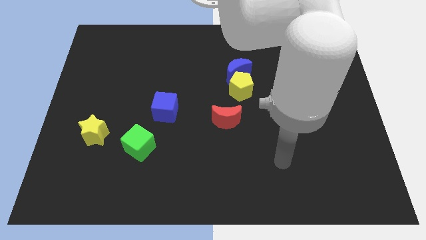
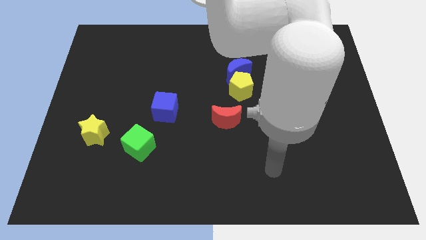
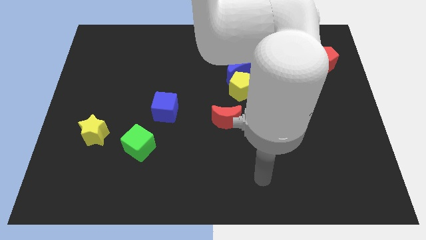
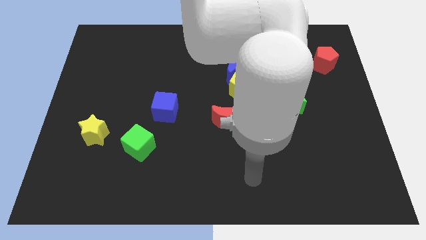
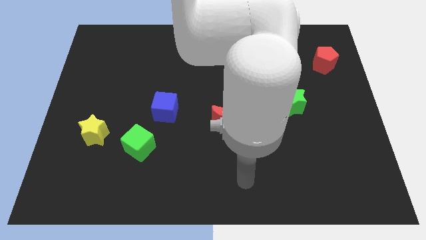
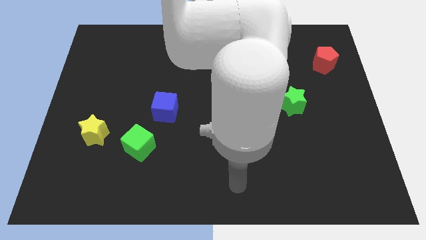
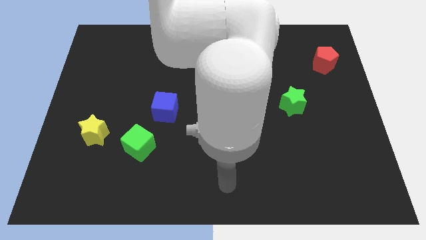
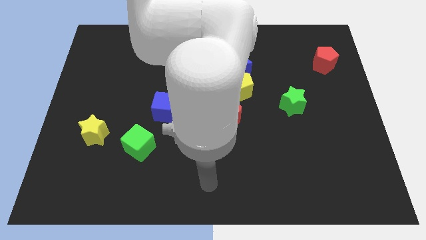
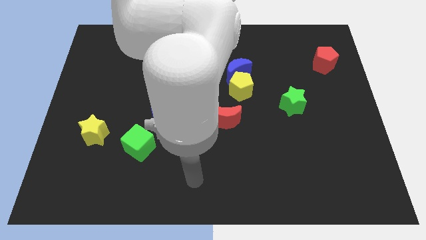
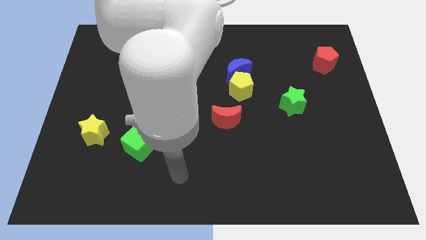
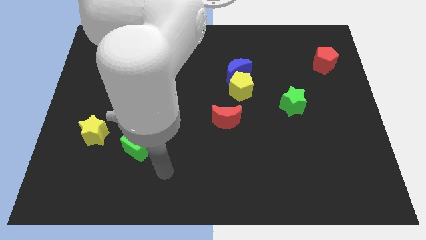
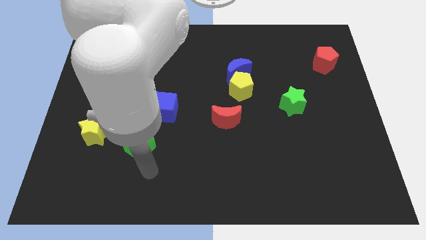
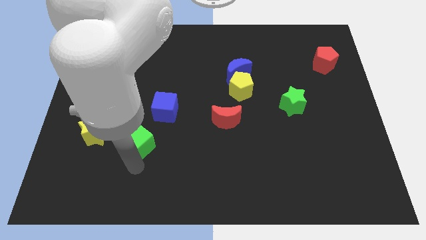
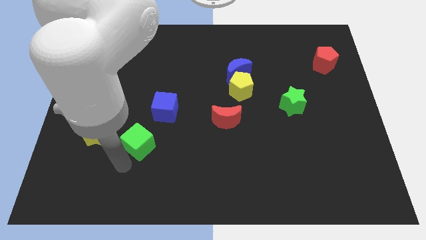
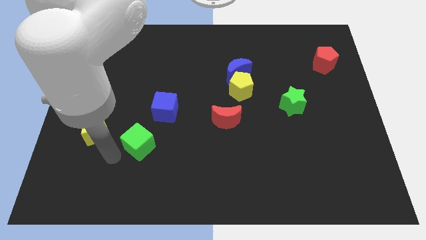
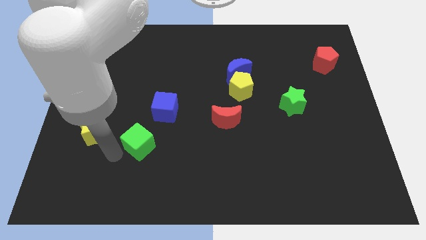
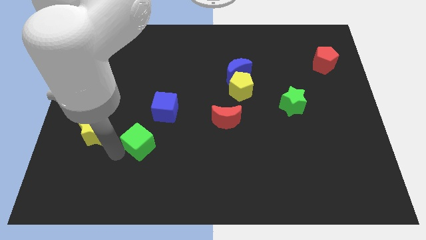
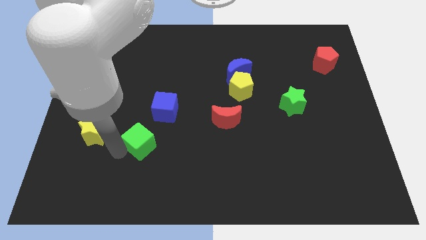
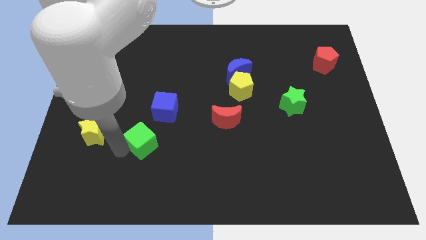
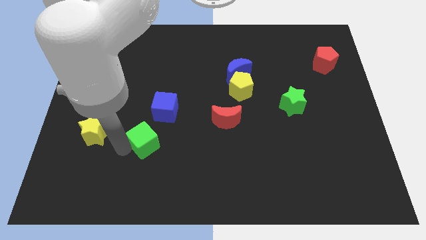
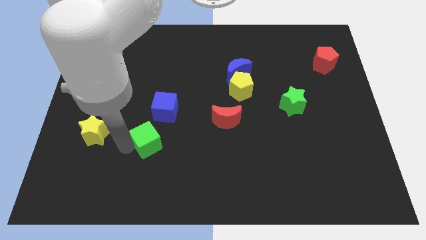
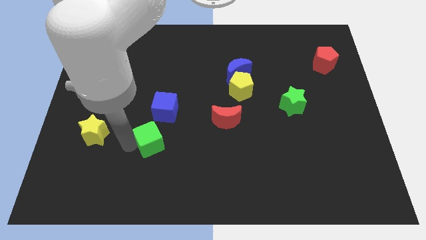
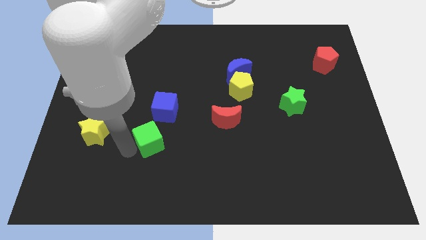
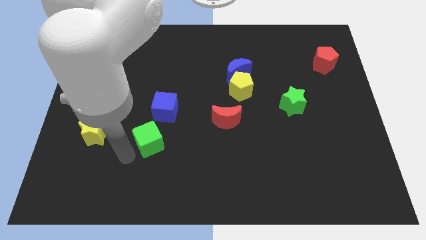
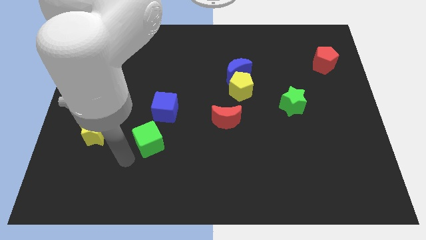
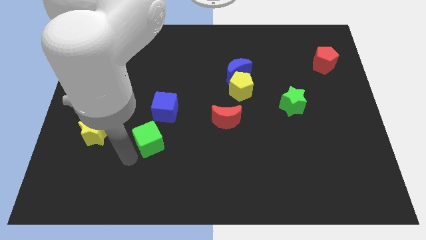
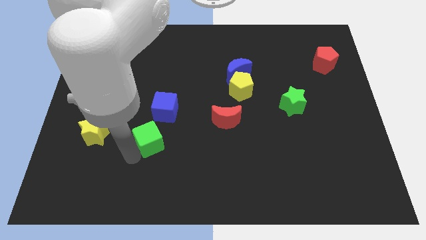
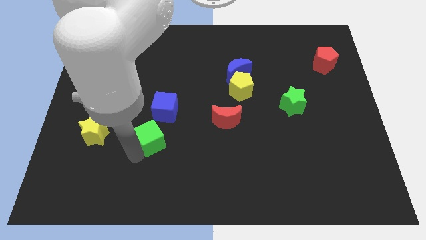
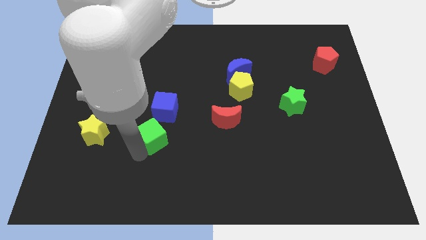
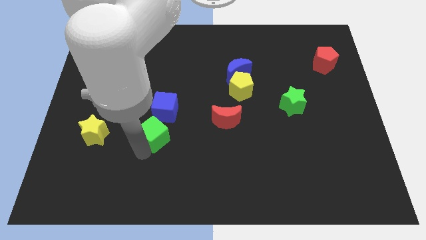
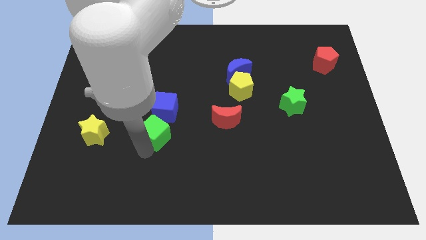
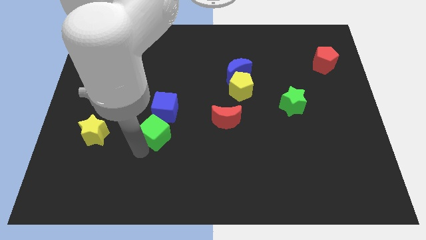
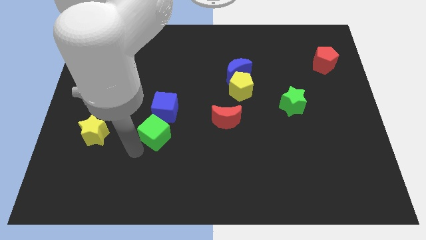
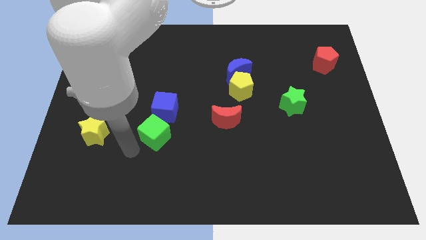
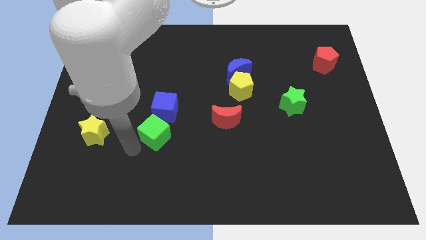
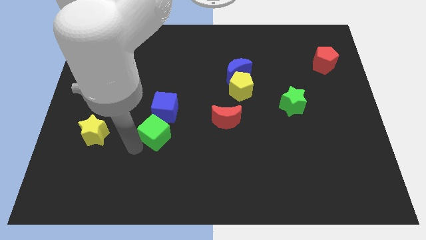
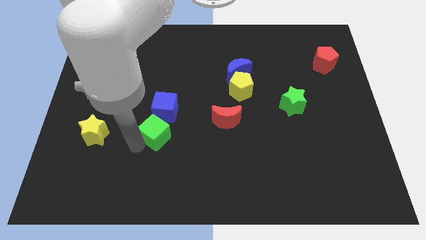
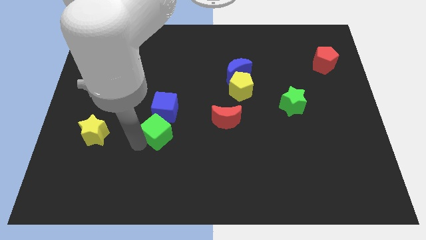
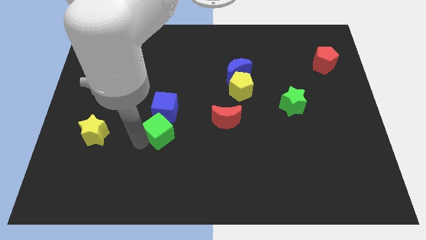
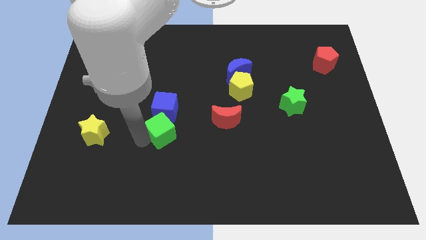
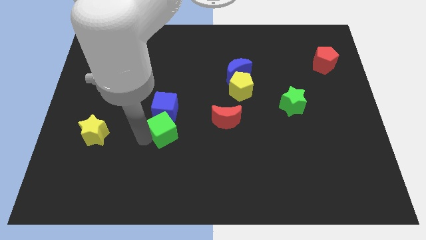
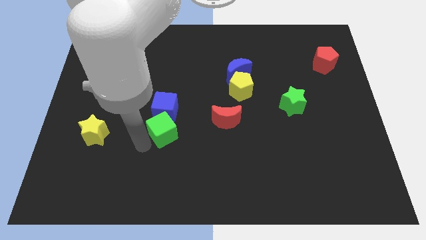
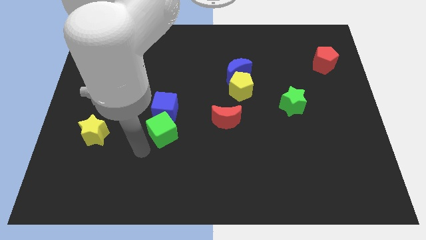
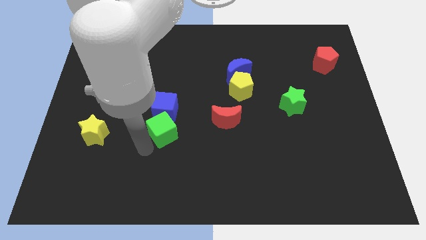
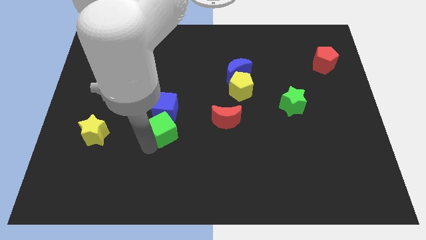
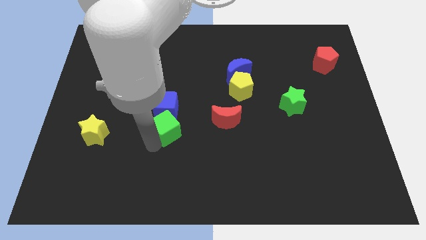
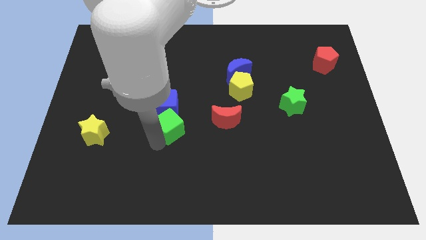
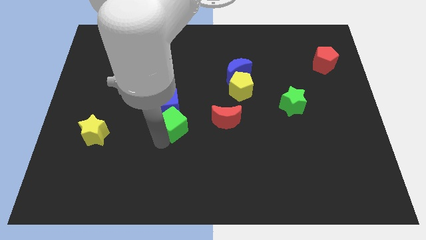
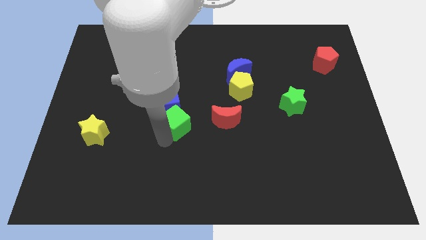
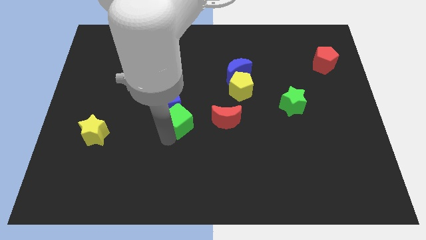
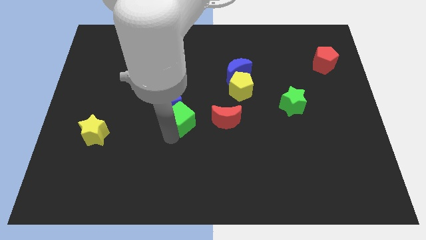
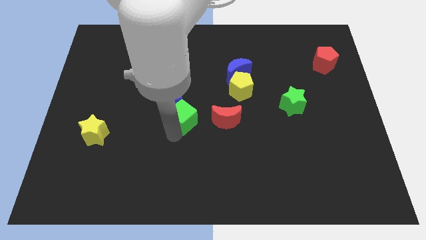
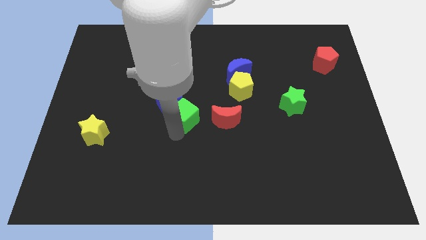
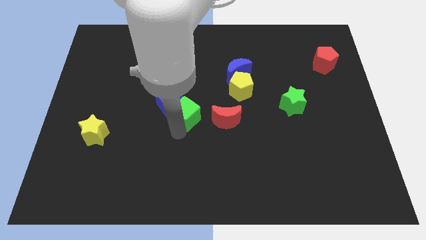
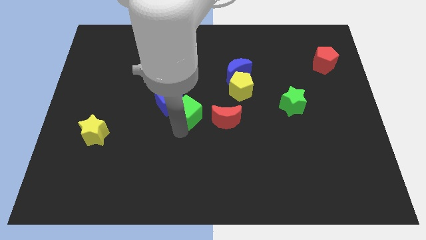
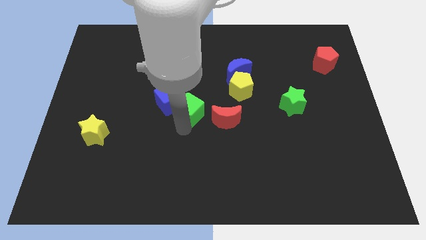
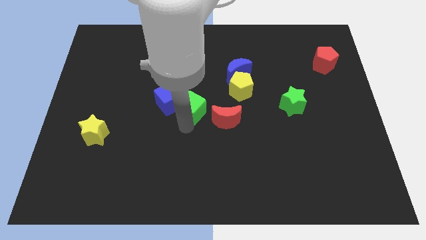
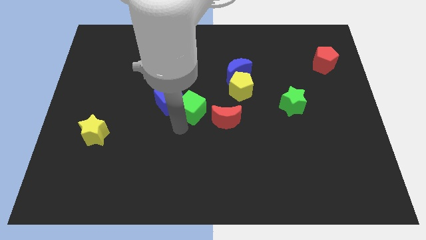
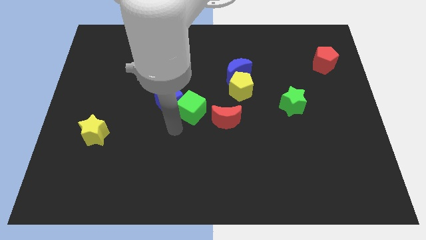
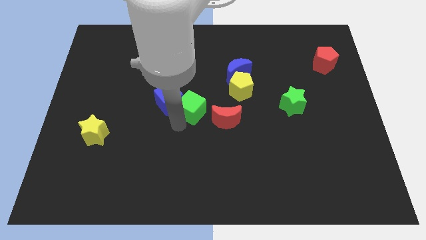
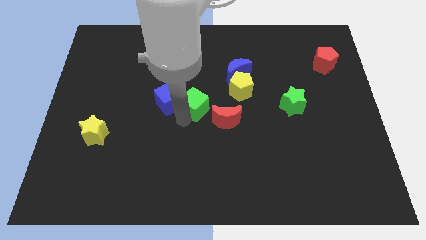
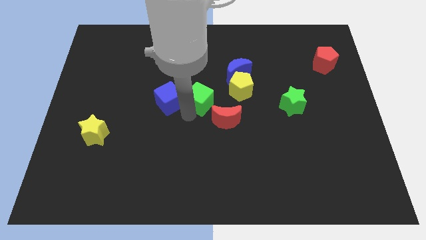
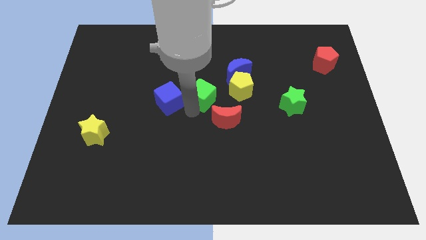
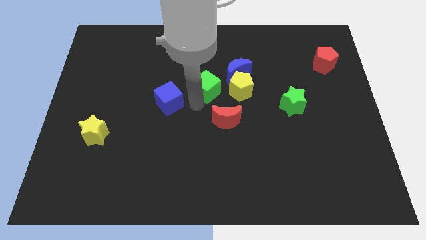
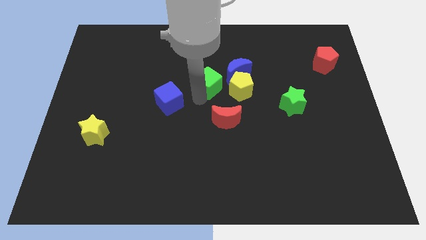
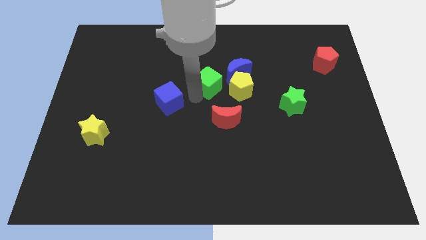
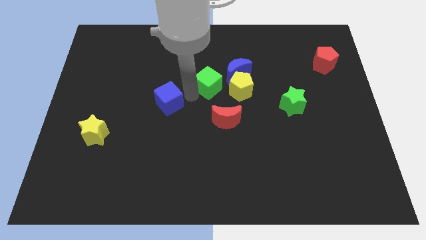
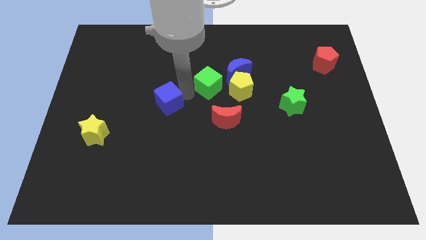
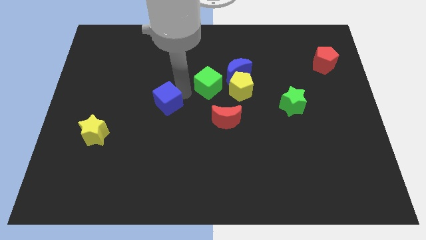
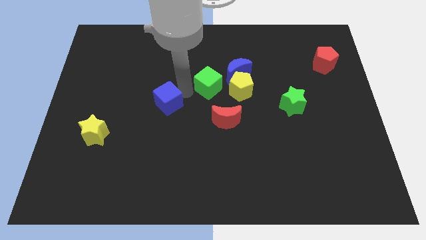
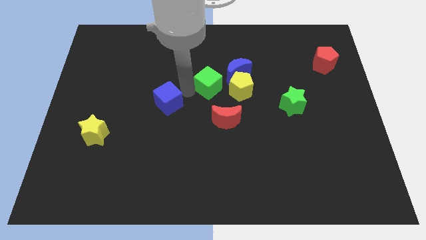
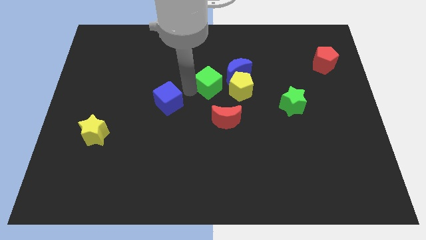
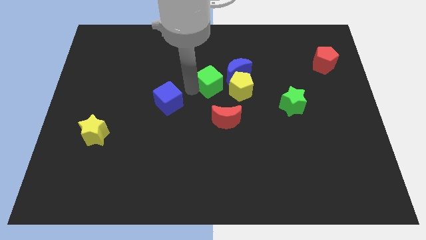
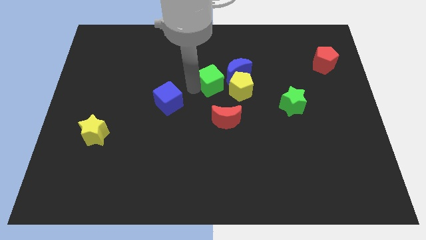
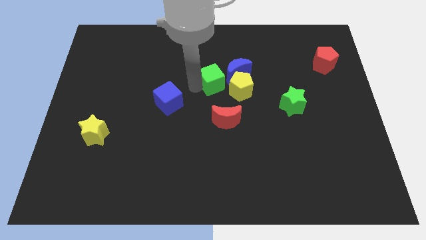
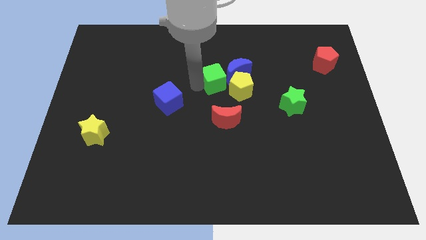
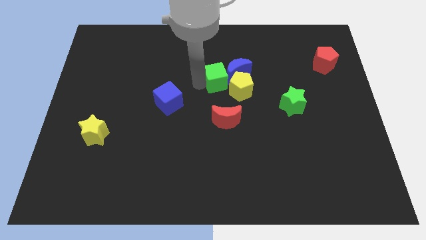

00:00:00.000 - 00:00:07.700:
move the green cube close to the blue moon
